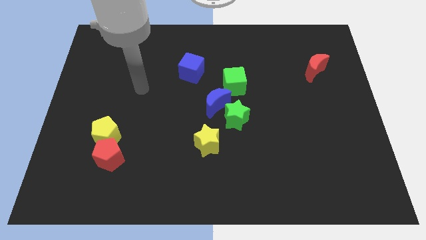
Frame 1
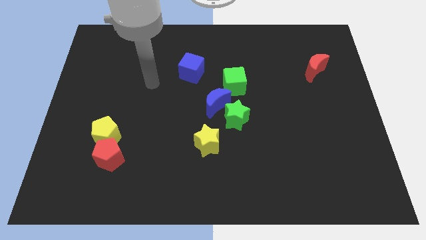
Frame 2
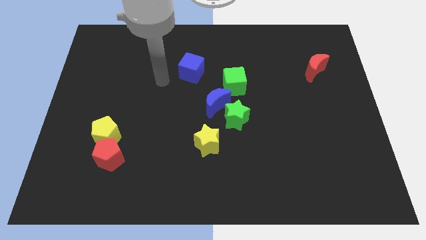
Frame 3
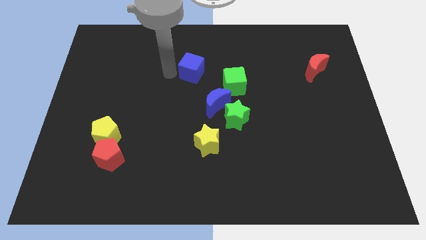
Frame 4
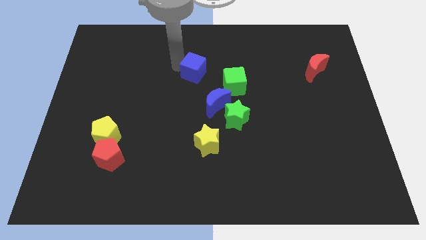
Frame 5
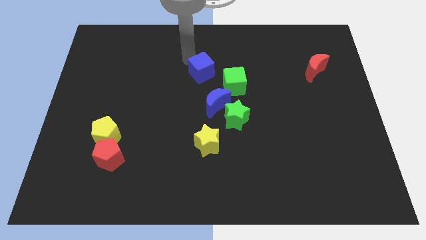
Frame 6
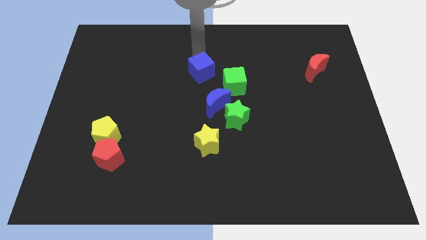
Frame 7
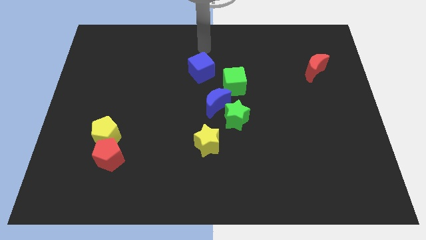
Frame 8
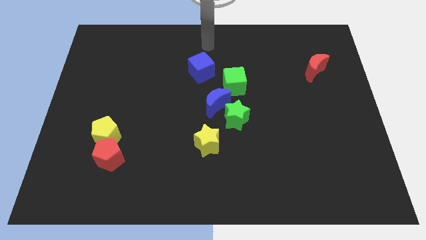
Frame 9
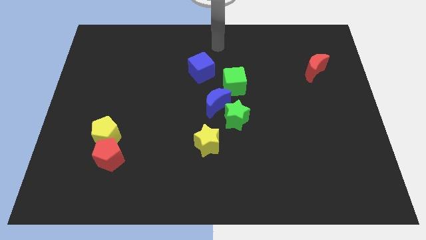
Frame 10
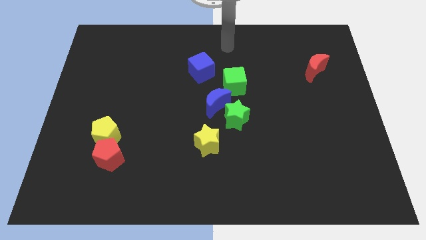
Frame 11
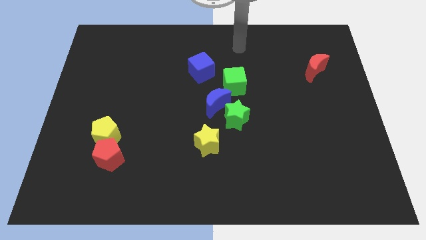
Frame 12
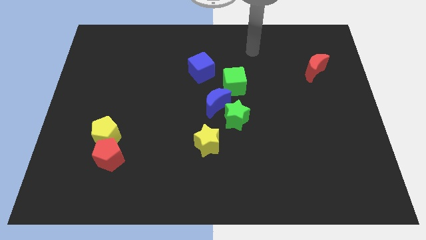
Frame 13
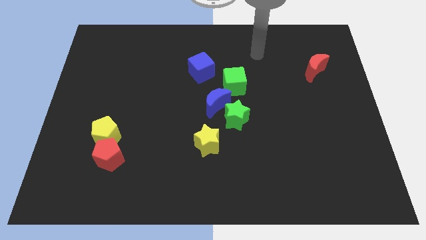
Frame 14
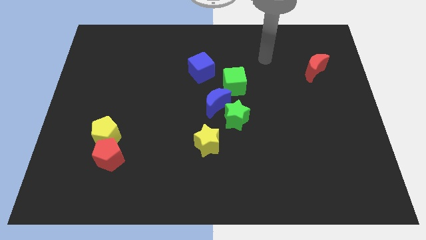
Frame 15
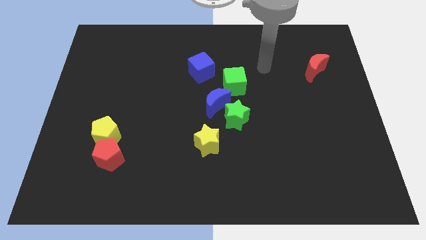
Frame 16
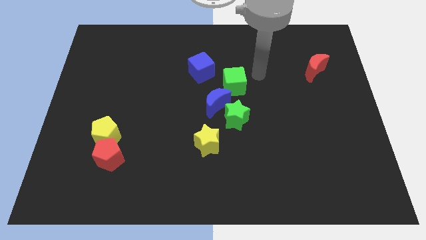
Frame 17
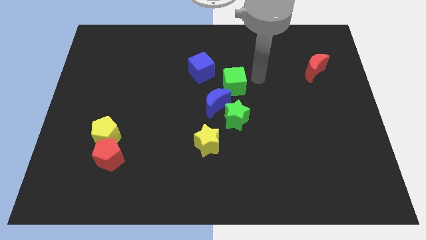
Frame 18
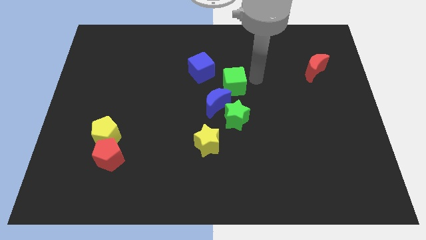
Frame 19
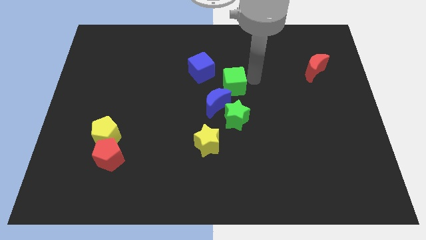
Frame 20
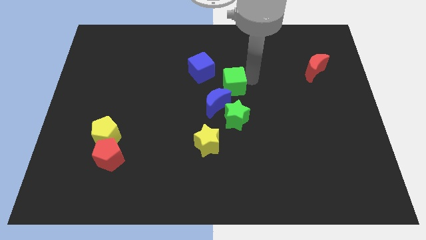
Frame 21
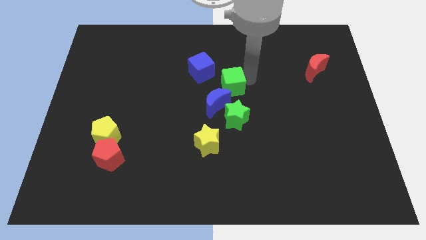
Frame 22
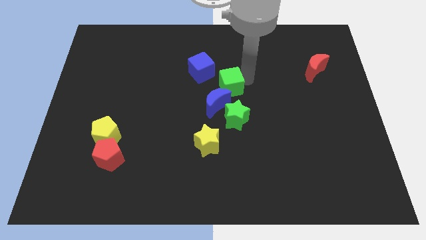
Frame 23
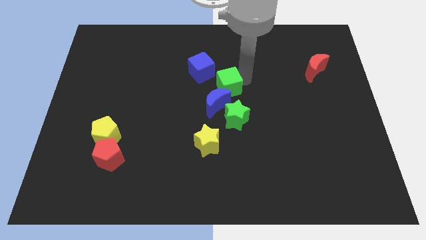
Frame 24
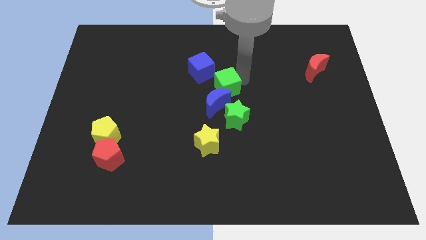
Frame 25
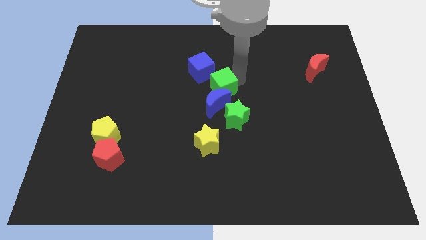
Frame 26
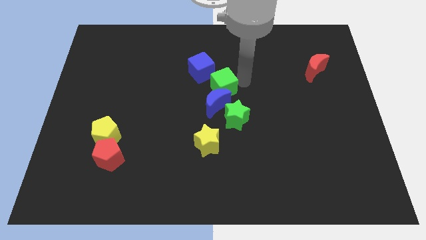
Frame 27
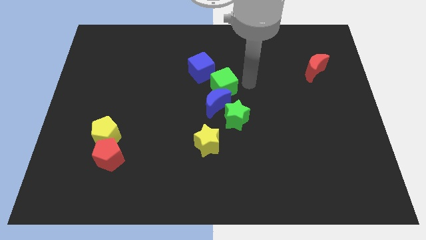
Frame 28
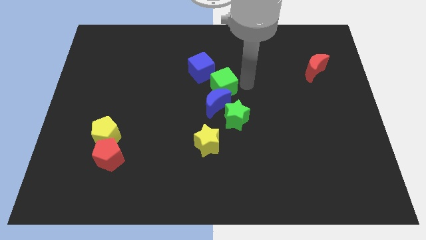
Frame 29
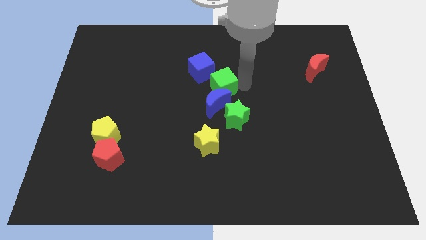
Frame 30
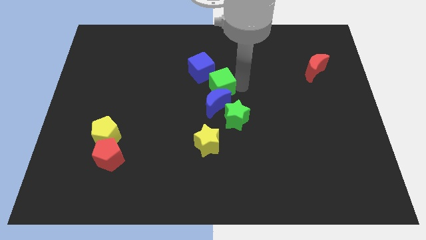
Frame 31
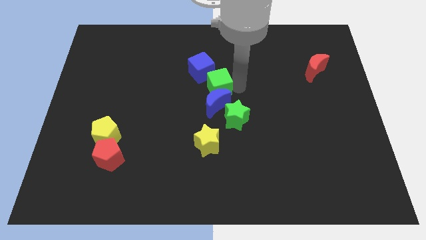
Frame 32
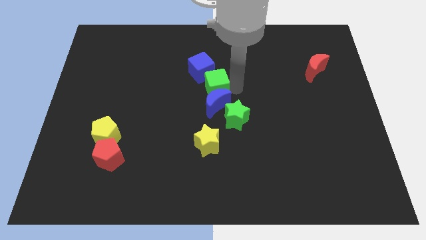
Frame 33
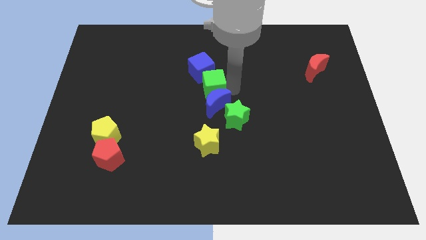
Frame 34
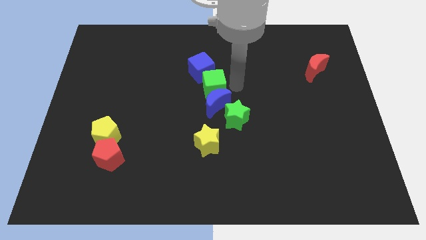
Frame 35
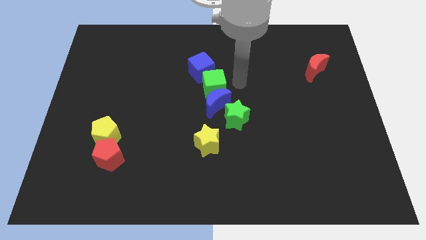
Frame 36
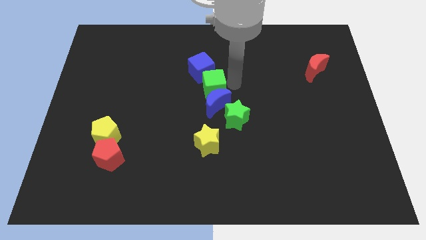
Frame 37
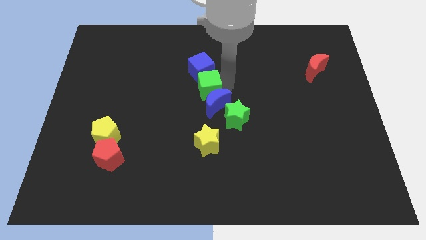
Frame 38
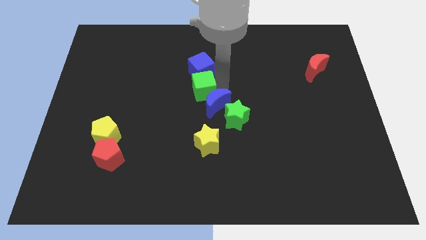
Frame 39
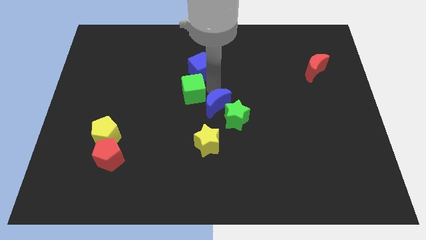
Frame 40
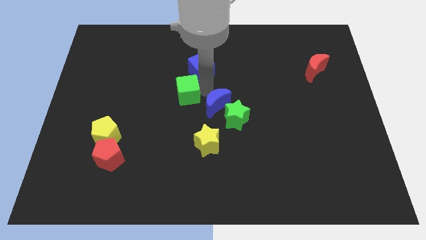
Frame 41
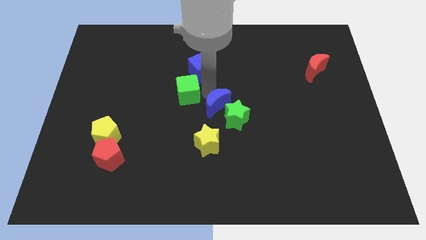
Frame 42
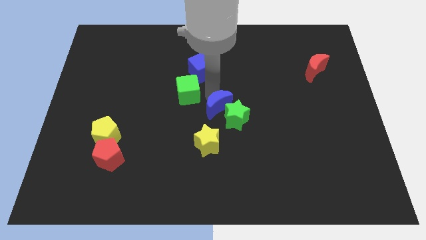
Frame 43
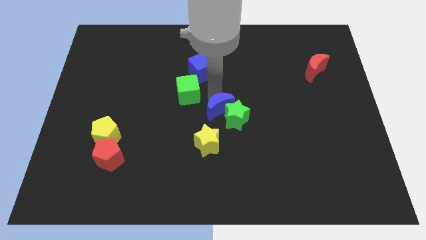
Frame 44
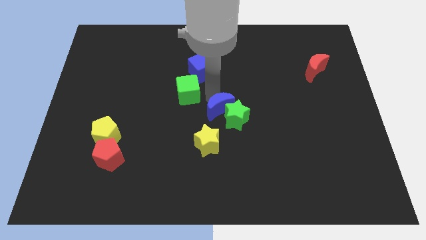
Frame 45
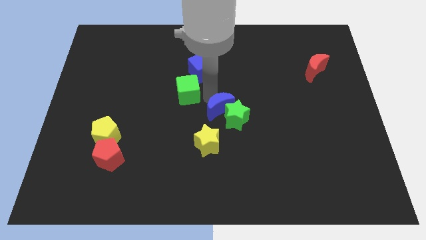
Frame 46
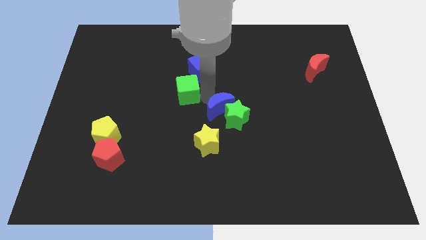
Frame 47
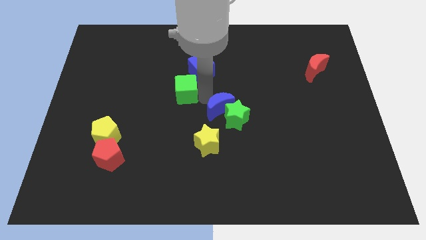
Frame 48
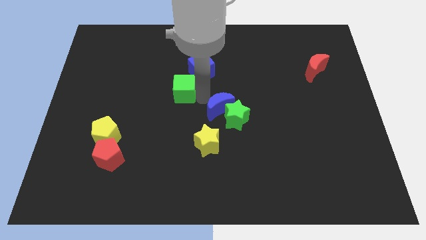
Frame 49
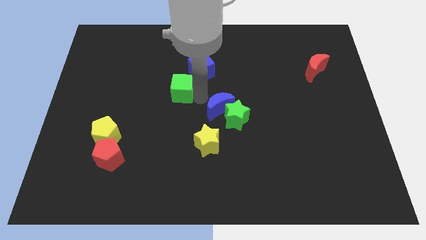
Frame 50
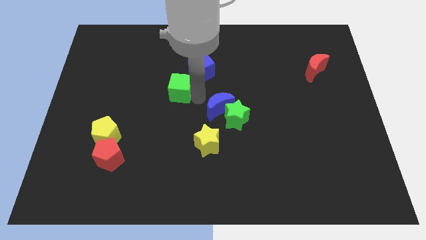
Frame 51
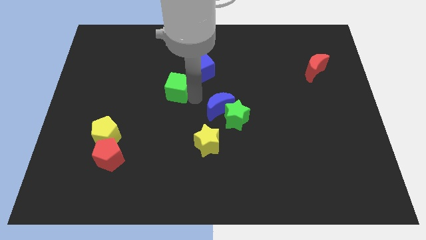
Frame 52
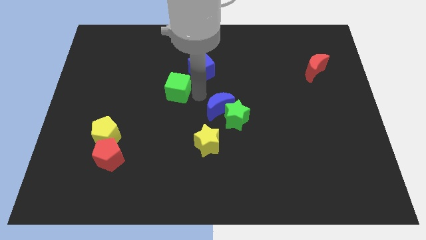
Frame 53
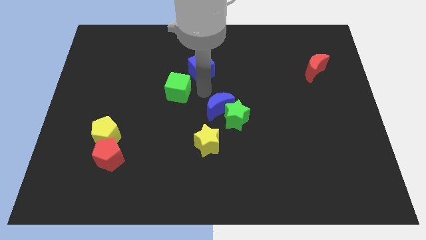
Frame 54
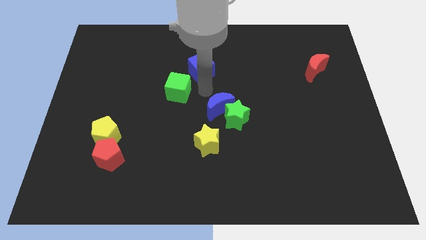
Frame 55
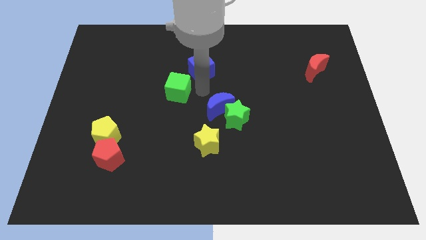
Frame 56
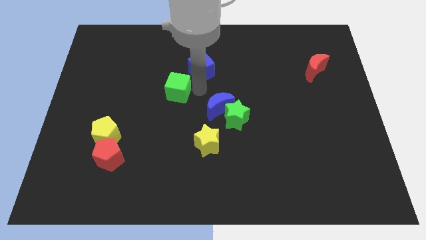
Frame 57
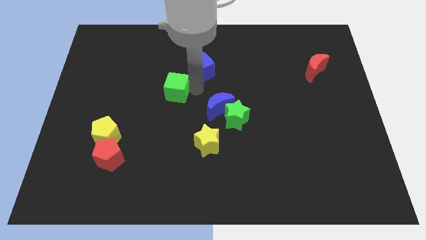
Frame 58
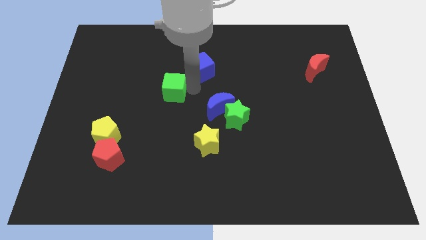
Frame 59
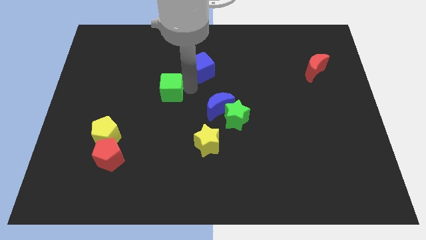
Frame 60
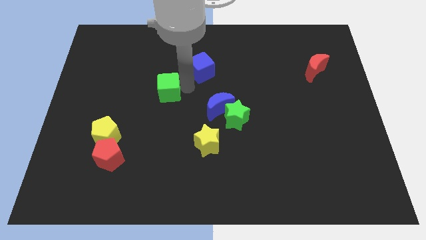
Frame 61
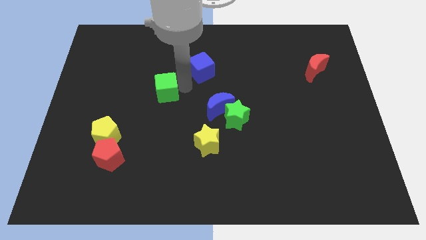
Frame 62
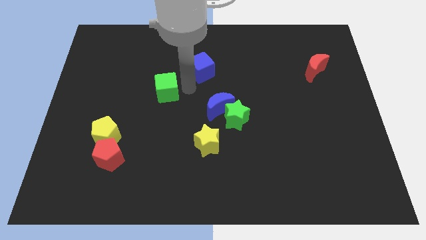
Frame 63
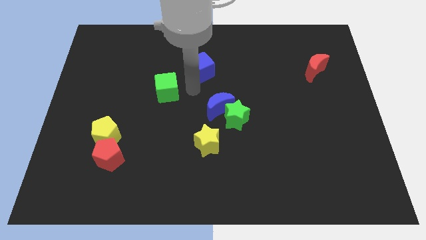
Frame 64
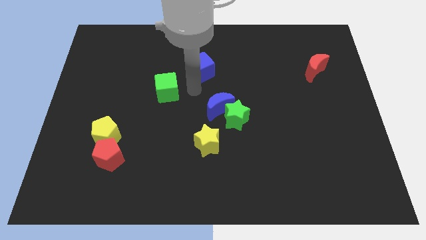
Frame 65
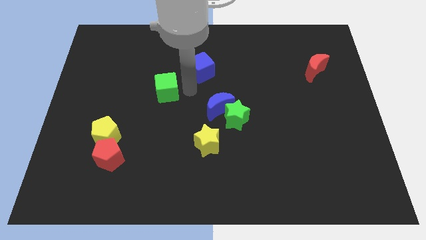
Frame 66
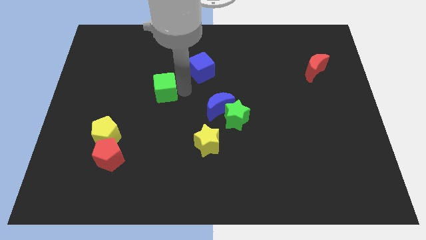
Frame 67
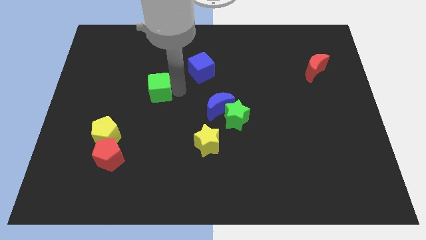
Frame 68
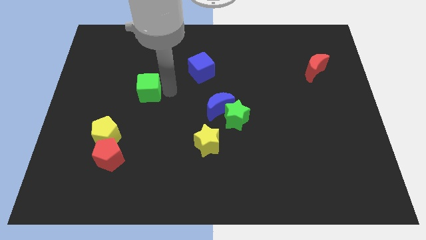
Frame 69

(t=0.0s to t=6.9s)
move the green cube to the left

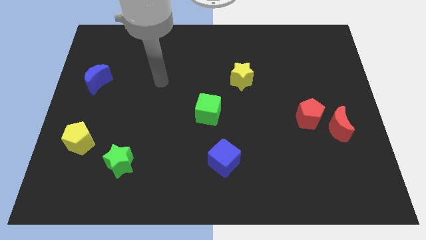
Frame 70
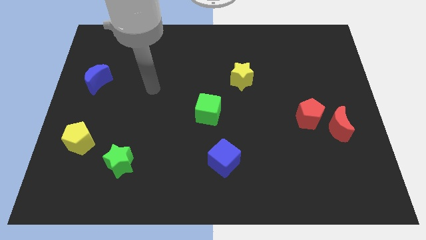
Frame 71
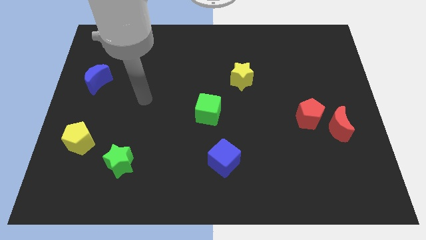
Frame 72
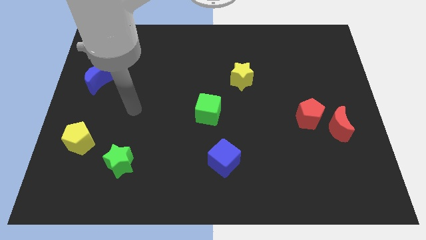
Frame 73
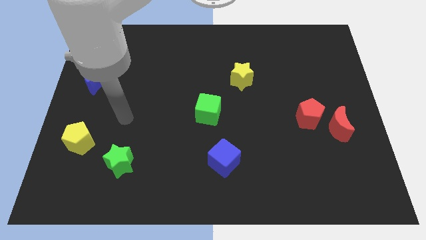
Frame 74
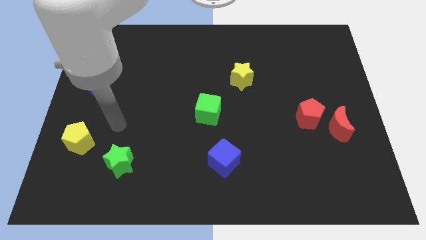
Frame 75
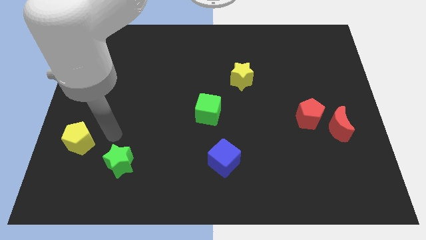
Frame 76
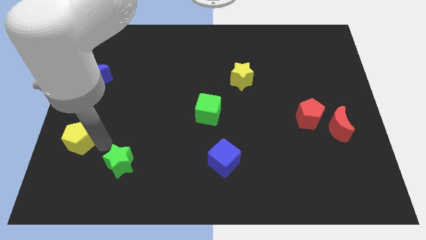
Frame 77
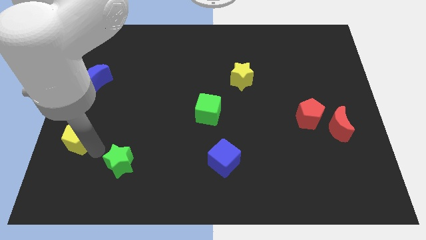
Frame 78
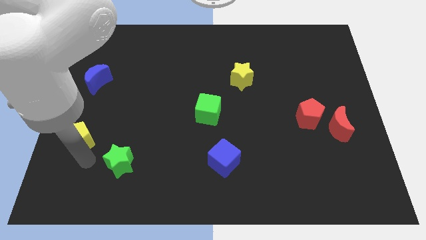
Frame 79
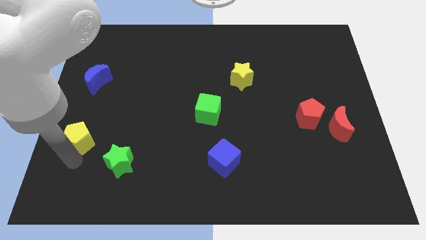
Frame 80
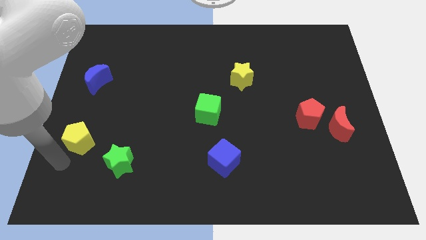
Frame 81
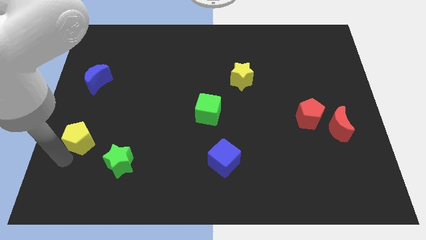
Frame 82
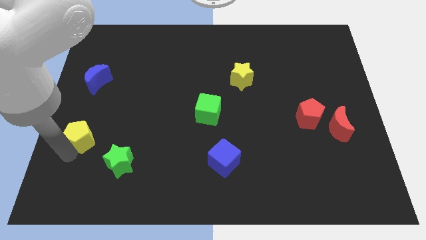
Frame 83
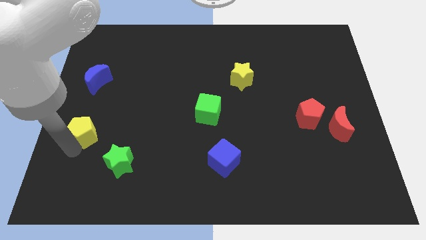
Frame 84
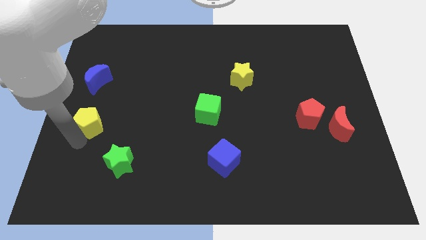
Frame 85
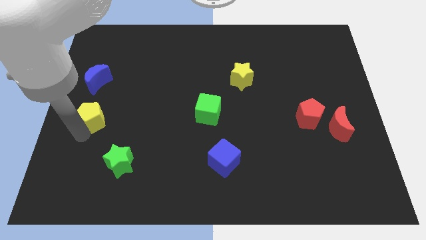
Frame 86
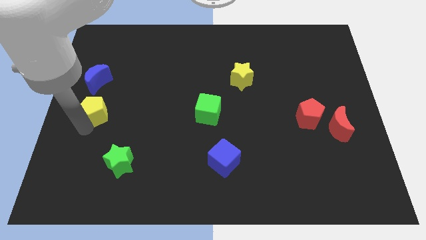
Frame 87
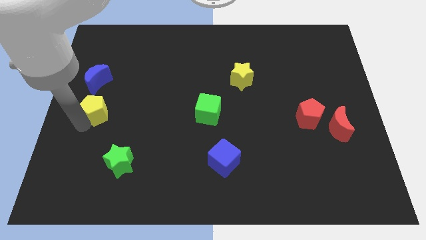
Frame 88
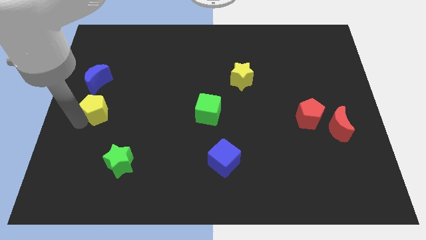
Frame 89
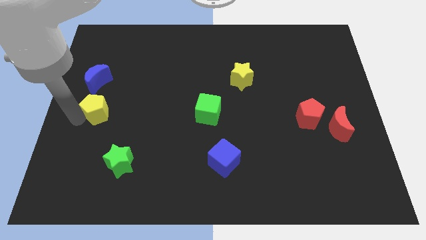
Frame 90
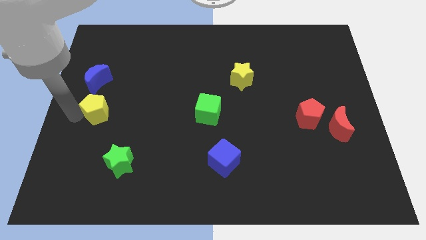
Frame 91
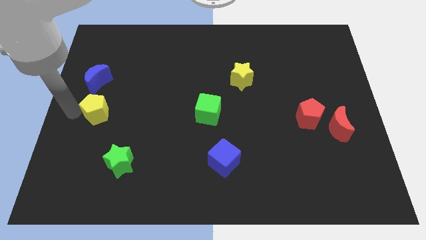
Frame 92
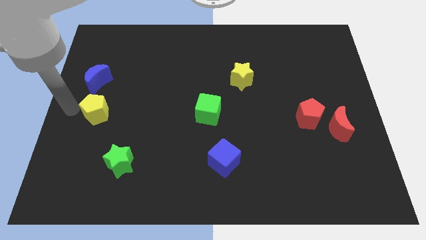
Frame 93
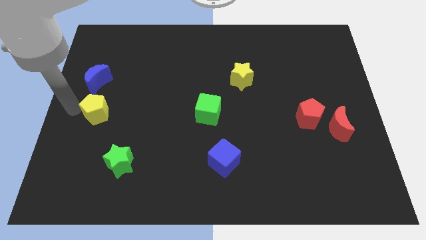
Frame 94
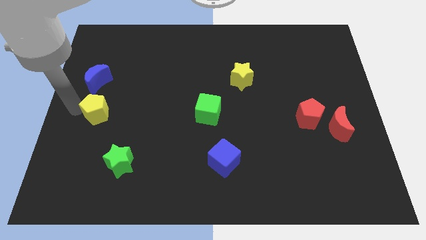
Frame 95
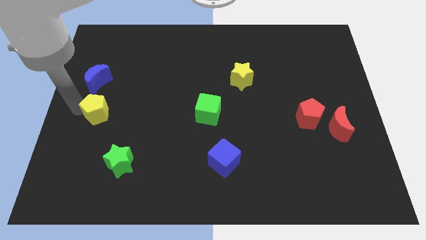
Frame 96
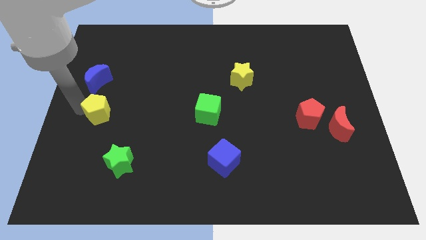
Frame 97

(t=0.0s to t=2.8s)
slightly push the yellow pentagon upwards and to the right
